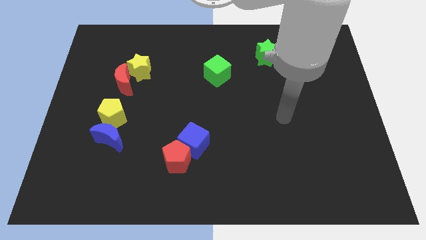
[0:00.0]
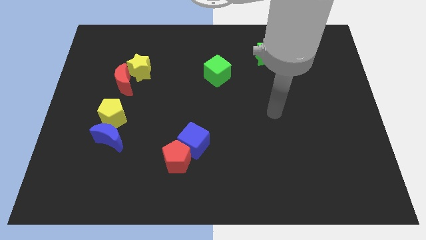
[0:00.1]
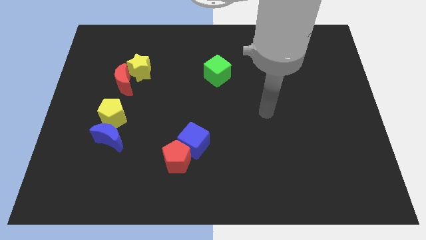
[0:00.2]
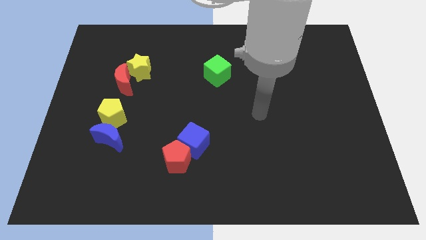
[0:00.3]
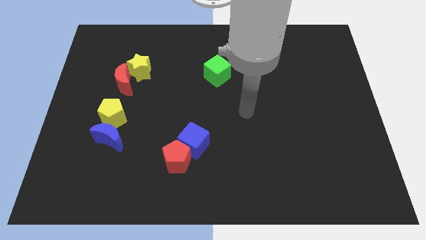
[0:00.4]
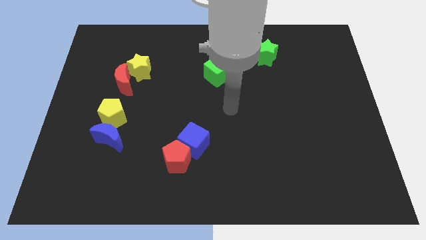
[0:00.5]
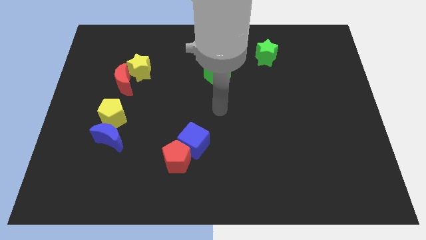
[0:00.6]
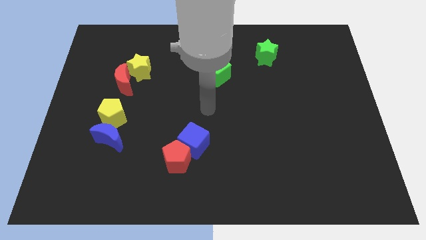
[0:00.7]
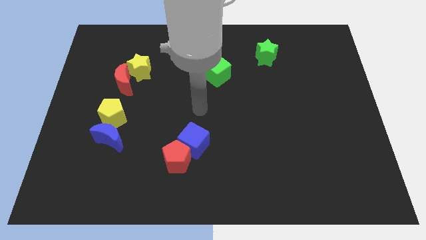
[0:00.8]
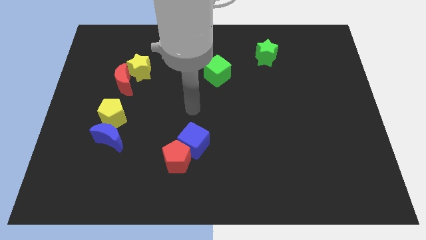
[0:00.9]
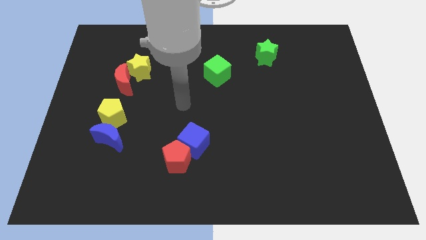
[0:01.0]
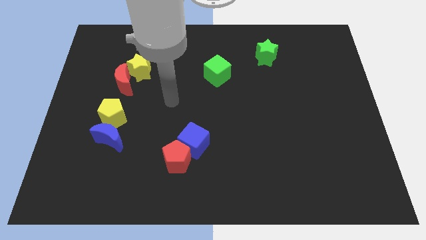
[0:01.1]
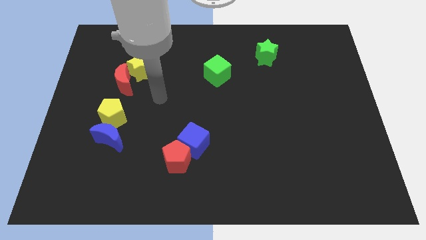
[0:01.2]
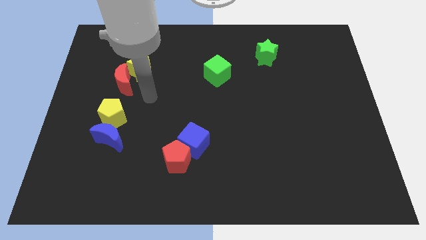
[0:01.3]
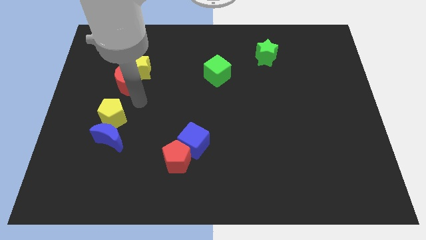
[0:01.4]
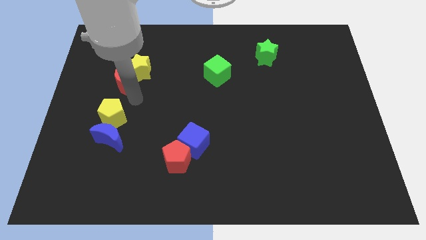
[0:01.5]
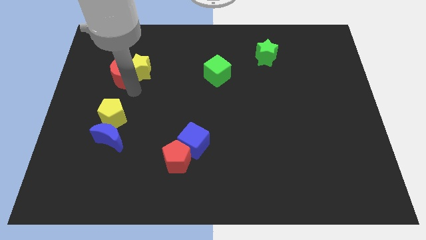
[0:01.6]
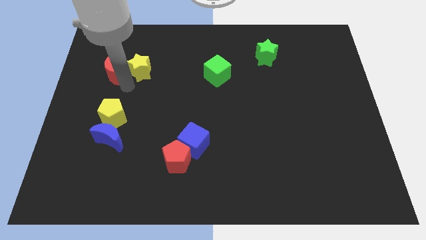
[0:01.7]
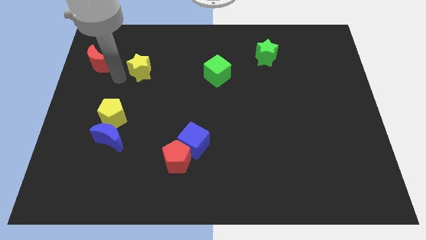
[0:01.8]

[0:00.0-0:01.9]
move the yellow star away from the red moon

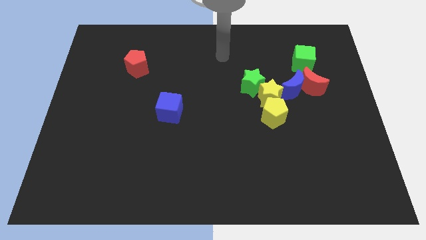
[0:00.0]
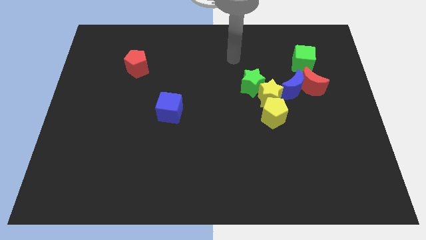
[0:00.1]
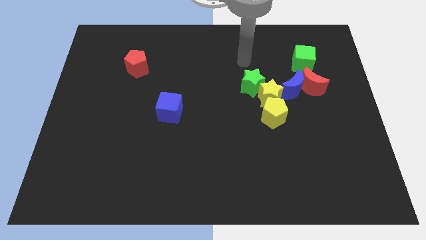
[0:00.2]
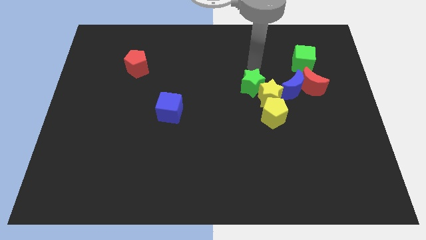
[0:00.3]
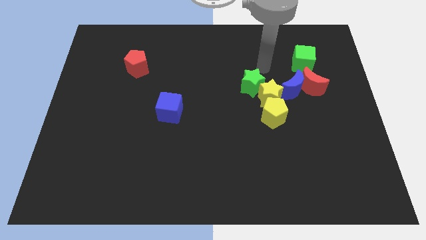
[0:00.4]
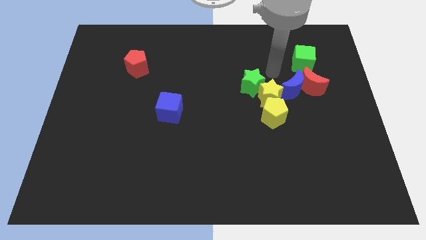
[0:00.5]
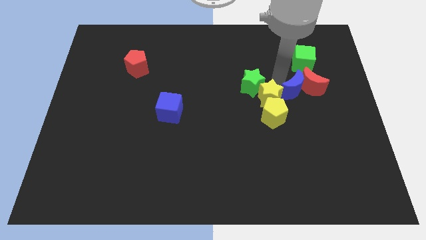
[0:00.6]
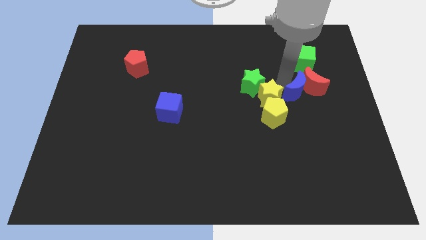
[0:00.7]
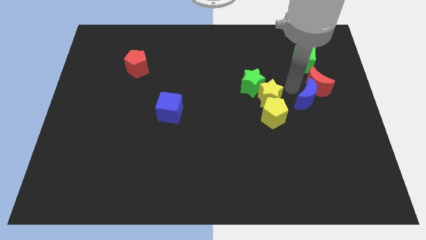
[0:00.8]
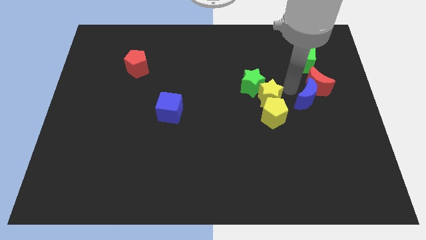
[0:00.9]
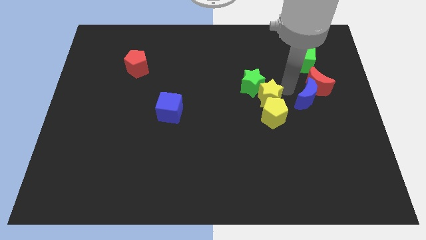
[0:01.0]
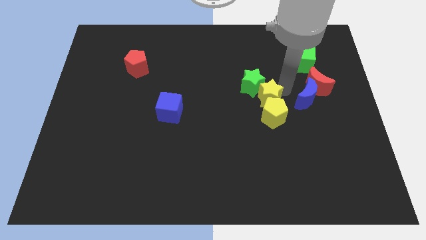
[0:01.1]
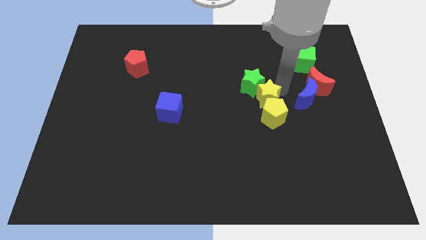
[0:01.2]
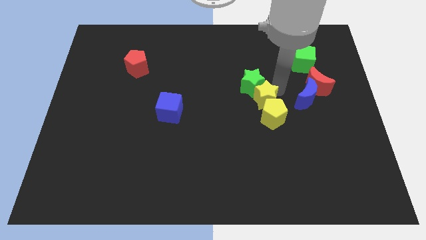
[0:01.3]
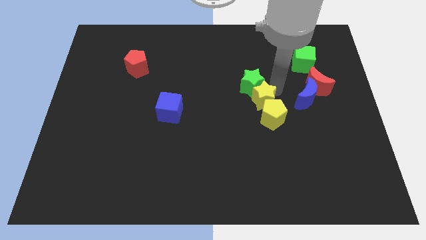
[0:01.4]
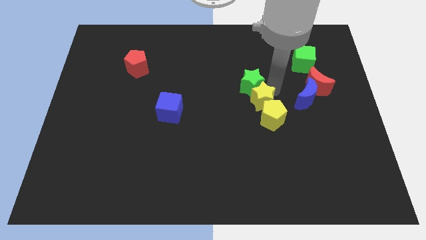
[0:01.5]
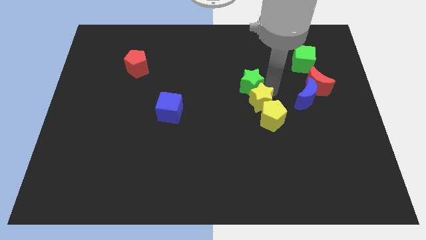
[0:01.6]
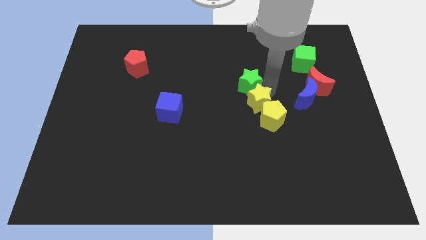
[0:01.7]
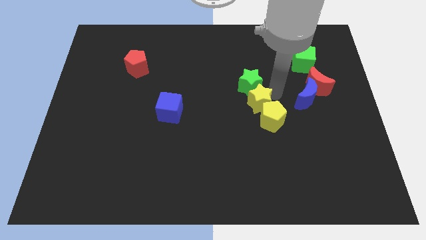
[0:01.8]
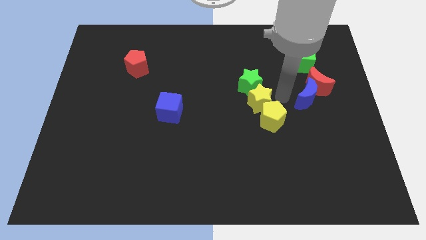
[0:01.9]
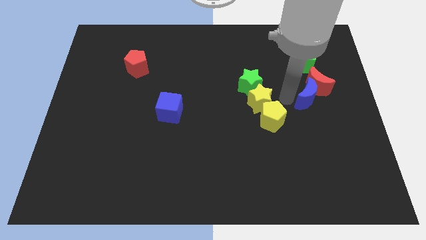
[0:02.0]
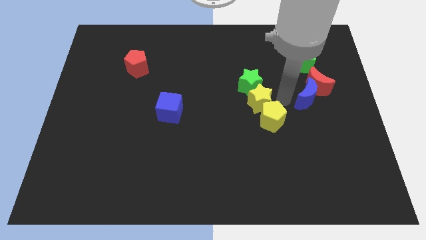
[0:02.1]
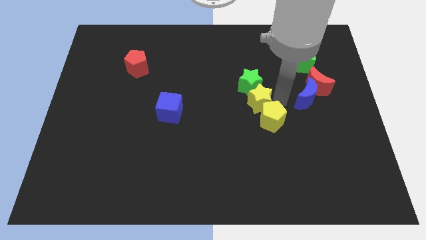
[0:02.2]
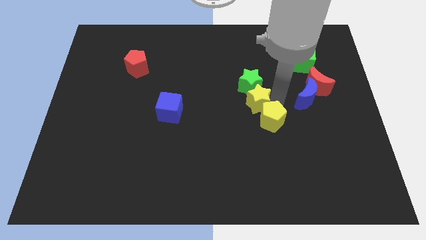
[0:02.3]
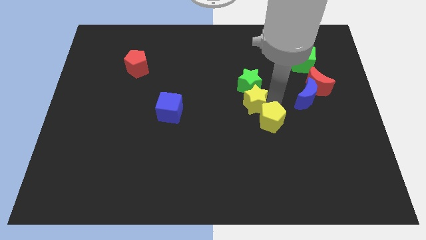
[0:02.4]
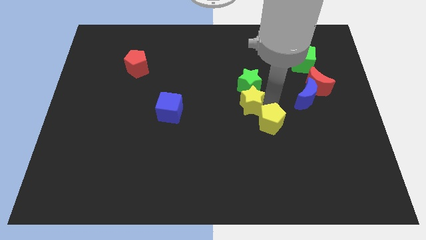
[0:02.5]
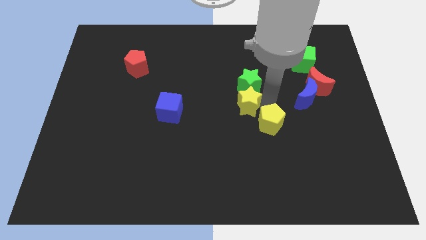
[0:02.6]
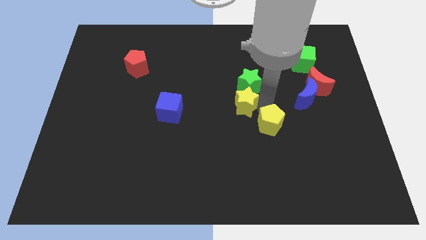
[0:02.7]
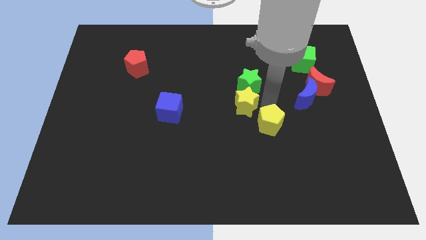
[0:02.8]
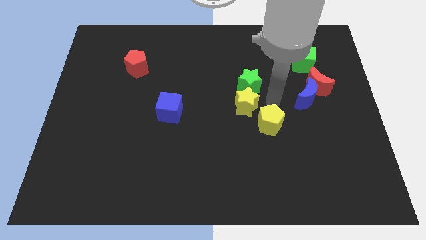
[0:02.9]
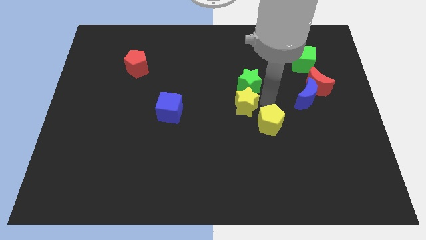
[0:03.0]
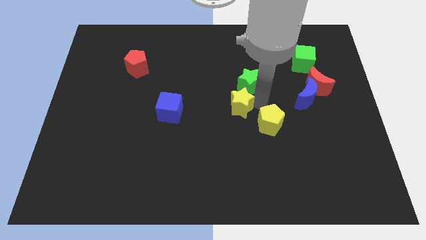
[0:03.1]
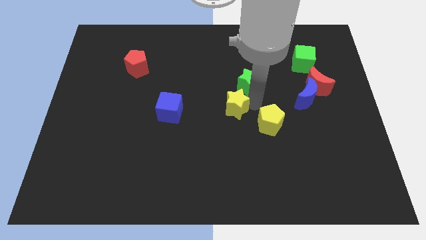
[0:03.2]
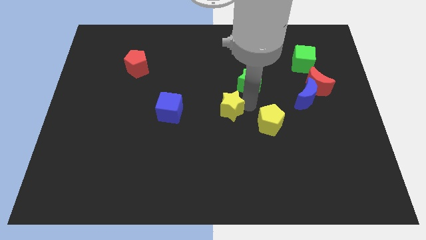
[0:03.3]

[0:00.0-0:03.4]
pull the yellow star apart from the yellow pentagon, green star, and blue moon

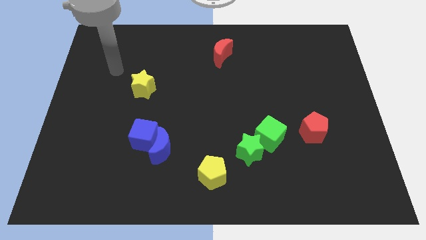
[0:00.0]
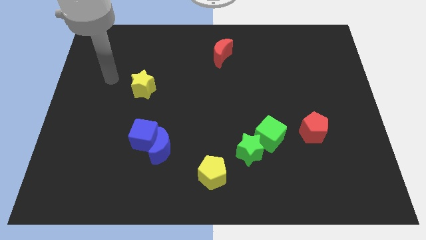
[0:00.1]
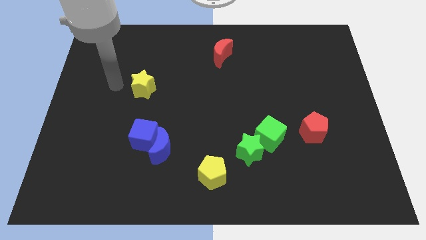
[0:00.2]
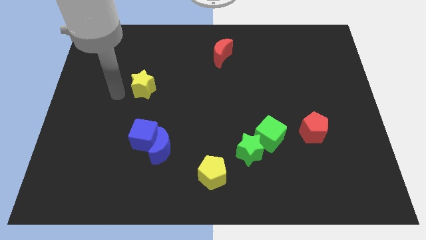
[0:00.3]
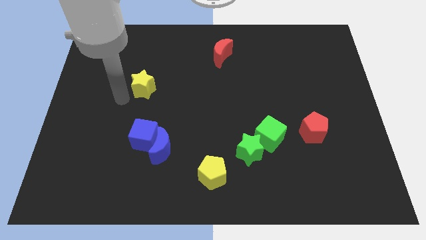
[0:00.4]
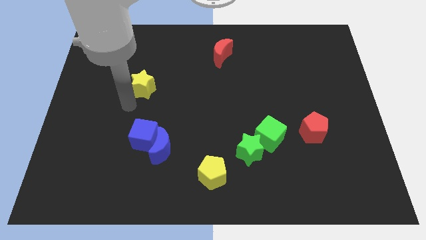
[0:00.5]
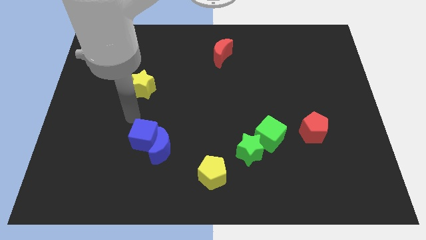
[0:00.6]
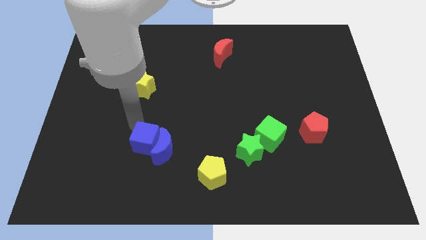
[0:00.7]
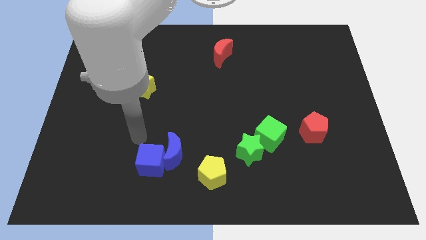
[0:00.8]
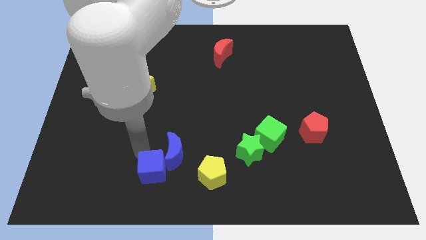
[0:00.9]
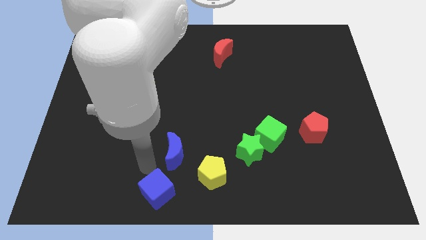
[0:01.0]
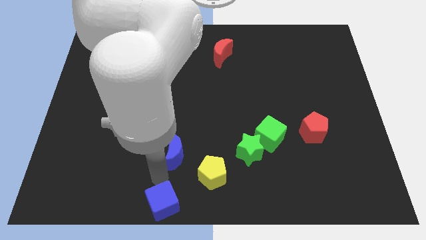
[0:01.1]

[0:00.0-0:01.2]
move the blue moon away from the blue cube

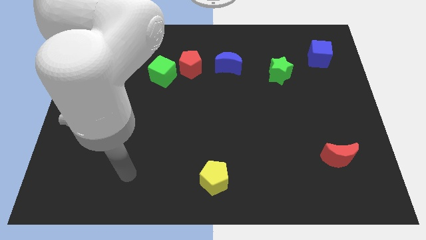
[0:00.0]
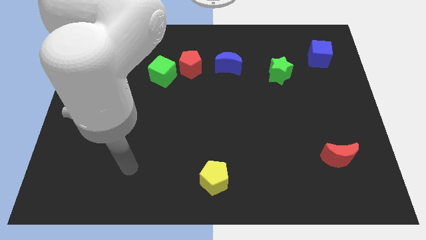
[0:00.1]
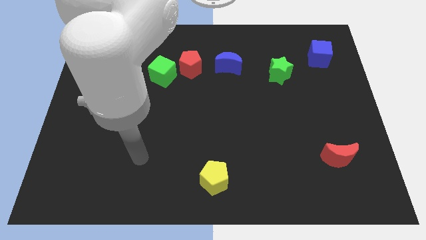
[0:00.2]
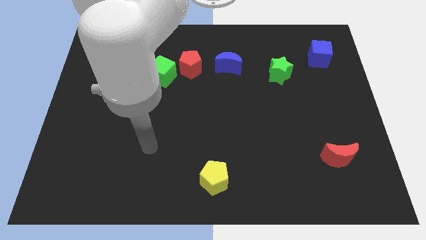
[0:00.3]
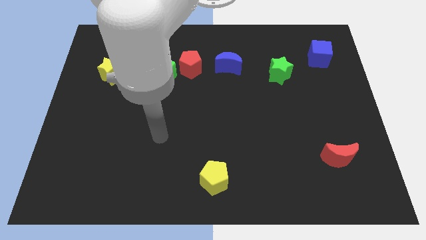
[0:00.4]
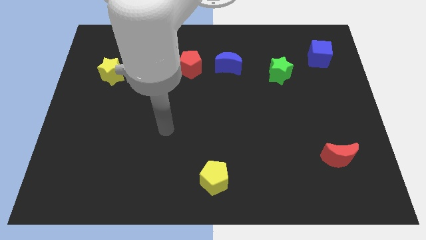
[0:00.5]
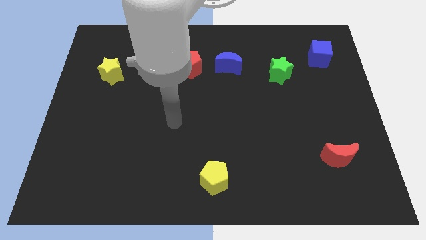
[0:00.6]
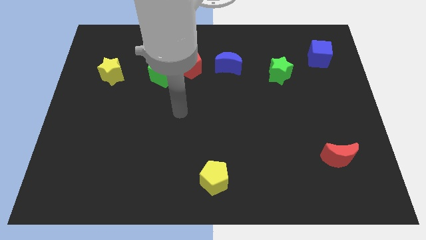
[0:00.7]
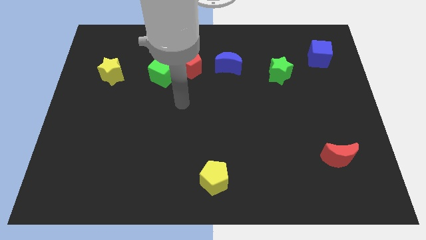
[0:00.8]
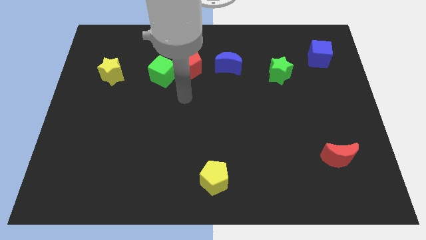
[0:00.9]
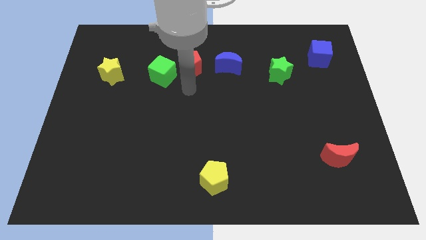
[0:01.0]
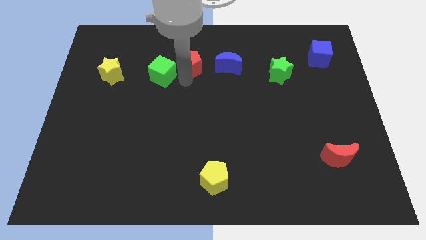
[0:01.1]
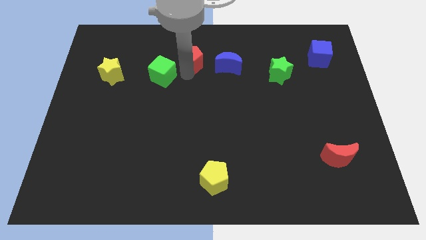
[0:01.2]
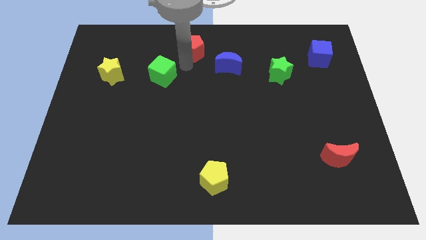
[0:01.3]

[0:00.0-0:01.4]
pull the green cube apart from the red pentagon

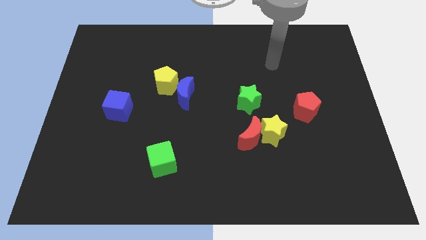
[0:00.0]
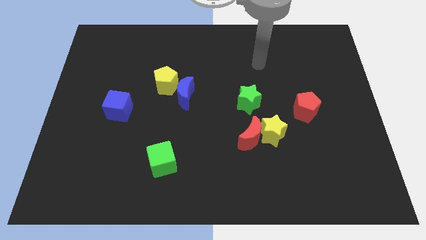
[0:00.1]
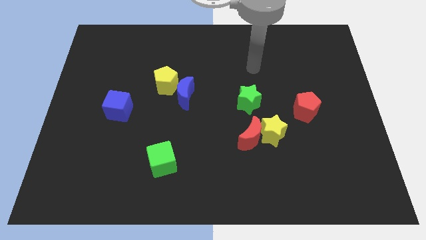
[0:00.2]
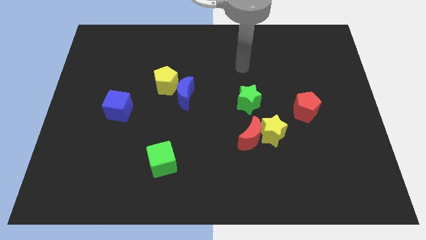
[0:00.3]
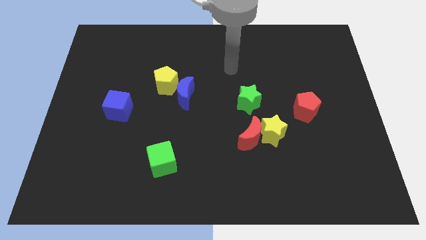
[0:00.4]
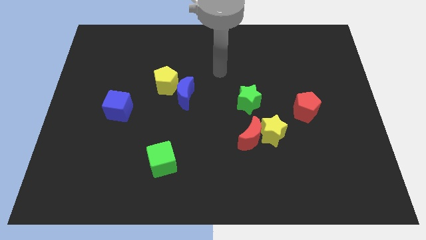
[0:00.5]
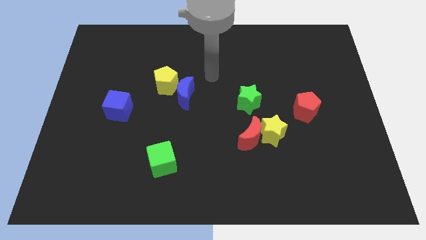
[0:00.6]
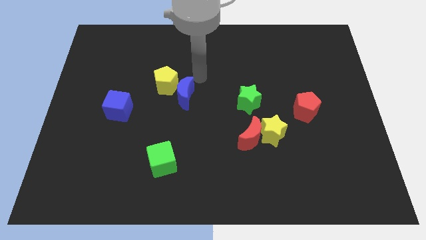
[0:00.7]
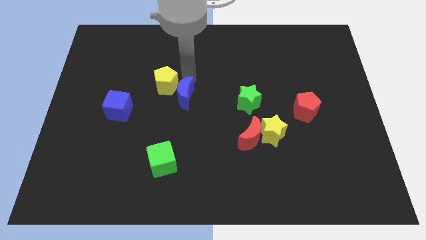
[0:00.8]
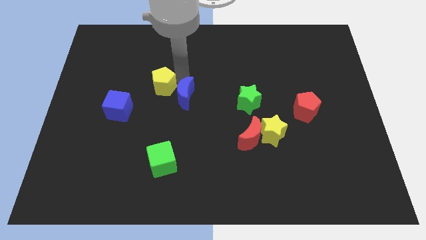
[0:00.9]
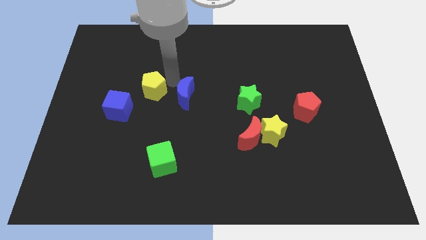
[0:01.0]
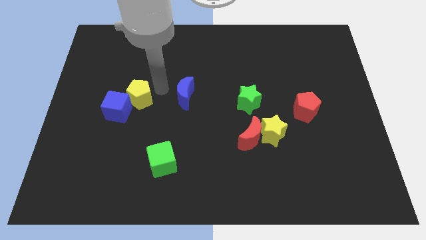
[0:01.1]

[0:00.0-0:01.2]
move the blue moon away from the yellow pentagon

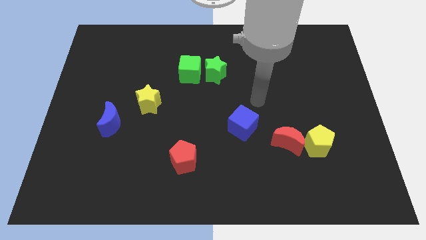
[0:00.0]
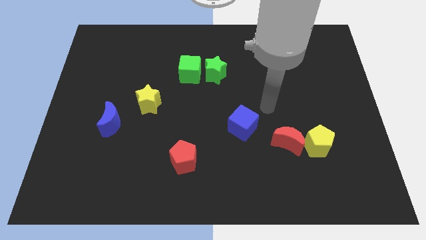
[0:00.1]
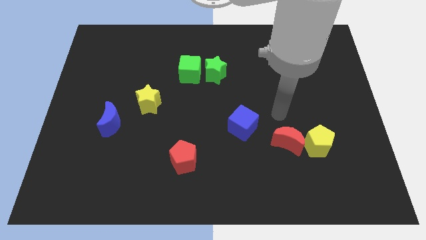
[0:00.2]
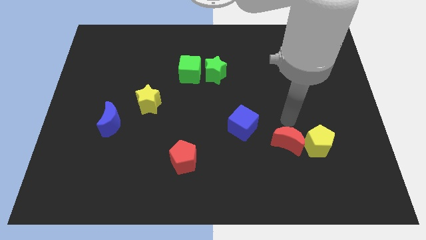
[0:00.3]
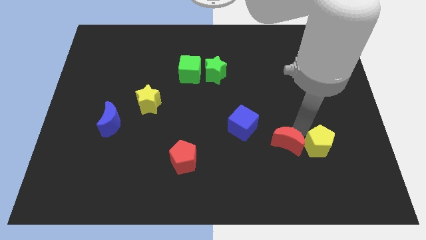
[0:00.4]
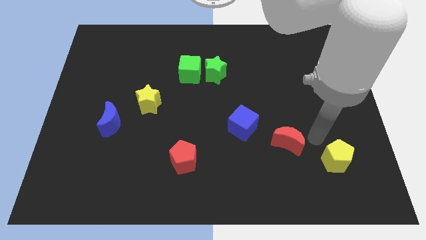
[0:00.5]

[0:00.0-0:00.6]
pull the red moon apart from the yellow pentagon
